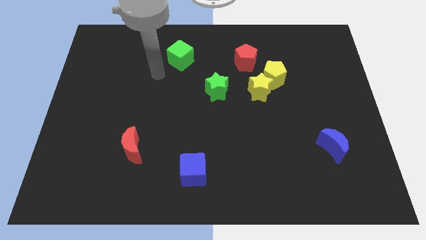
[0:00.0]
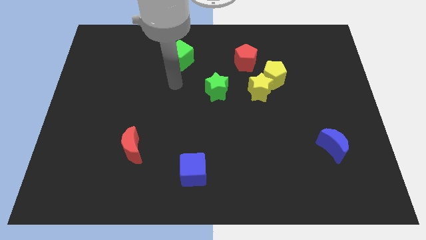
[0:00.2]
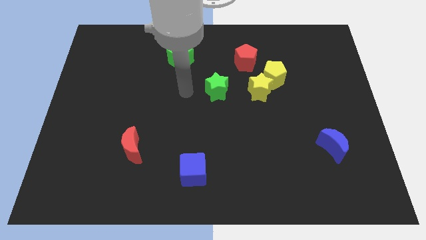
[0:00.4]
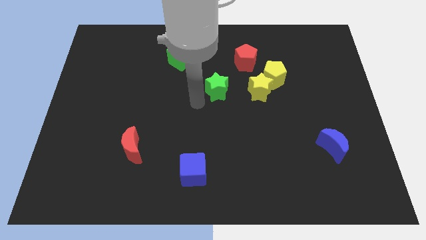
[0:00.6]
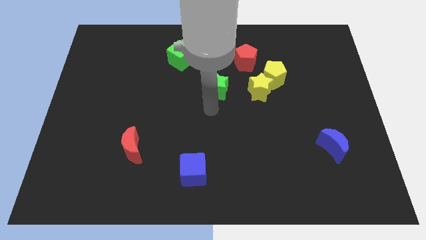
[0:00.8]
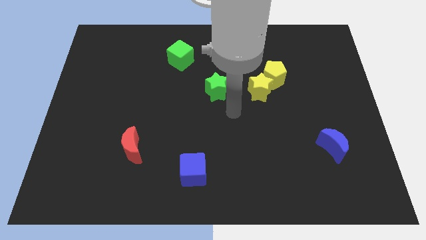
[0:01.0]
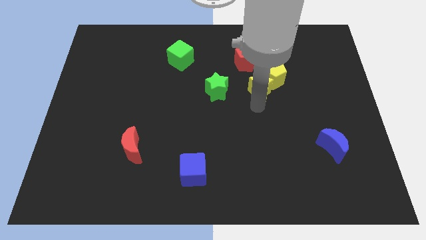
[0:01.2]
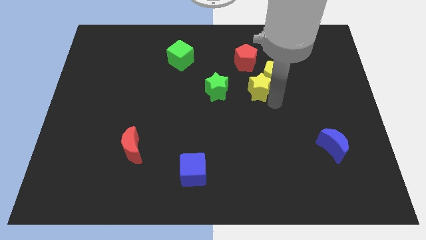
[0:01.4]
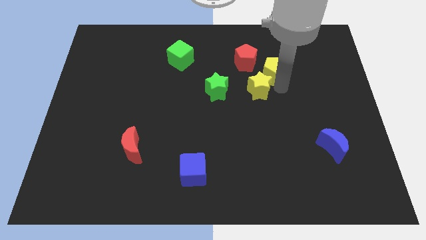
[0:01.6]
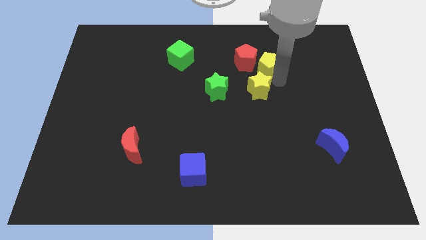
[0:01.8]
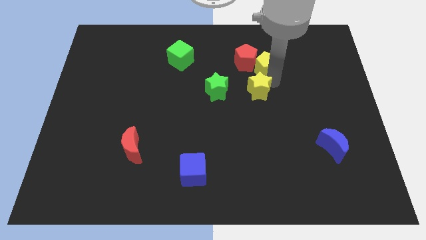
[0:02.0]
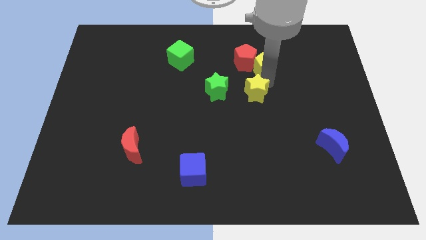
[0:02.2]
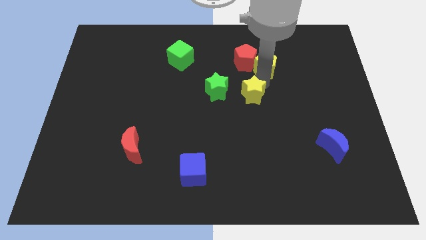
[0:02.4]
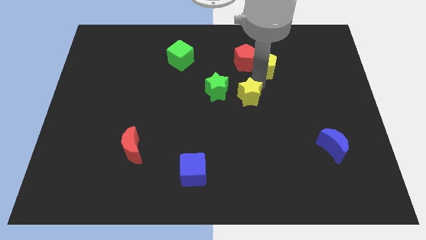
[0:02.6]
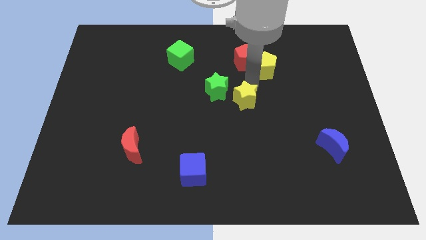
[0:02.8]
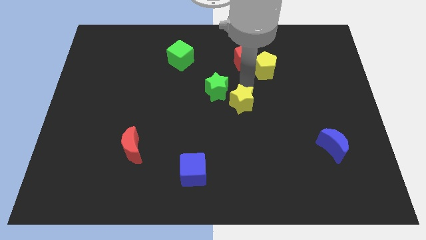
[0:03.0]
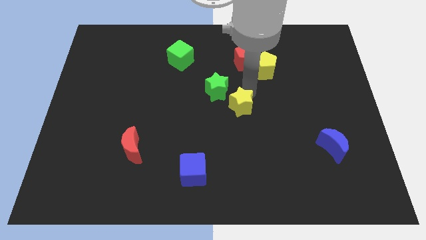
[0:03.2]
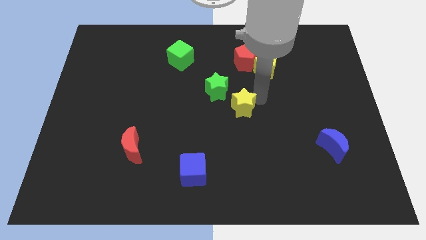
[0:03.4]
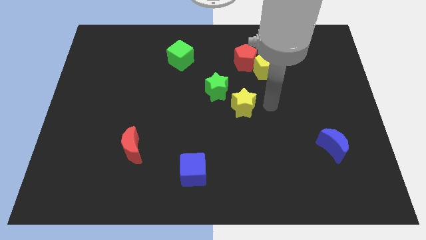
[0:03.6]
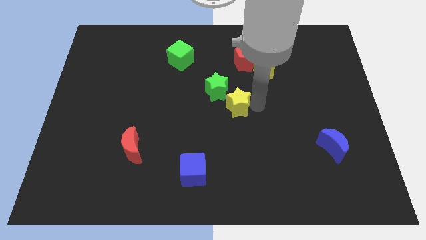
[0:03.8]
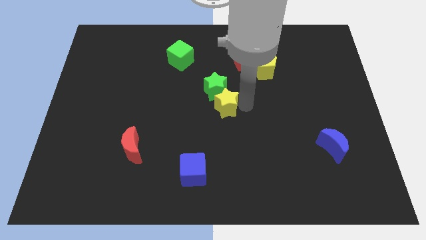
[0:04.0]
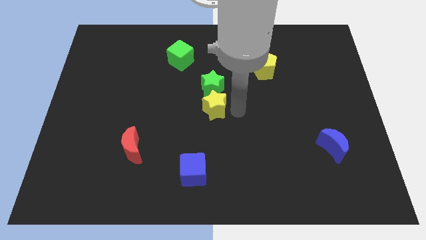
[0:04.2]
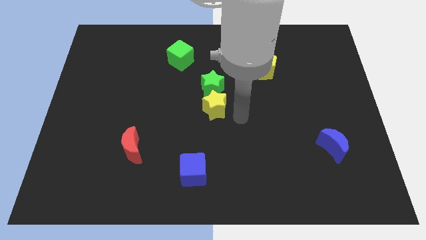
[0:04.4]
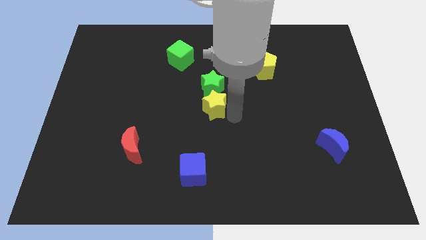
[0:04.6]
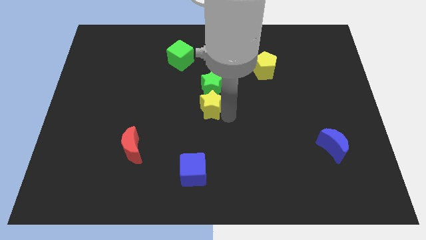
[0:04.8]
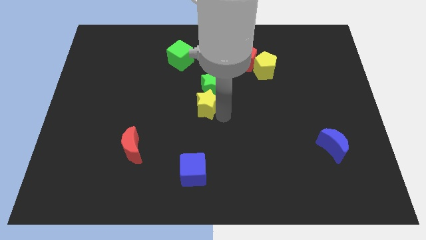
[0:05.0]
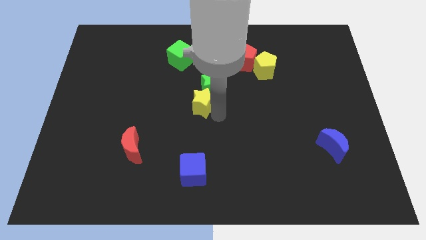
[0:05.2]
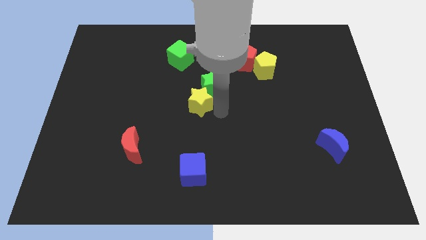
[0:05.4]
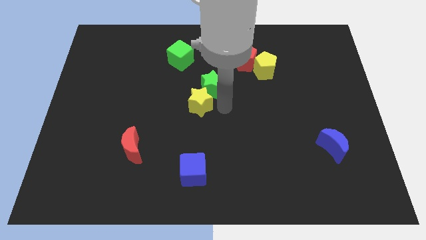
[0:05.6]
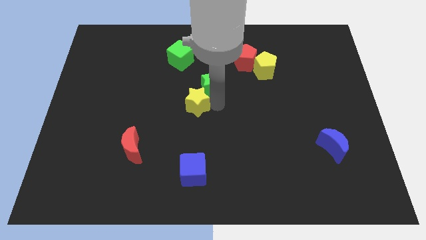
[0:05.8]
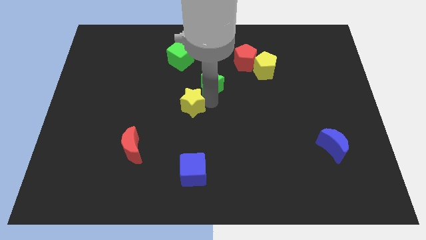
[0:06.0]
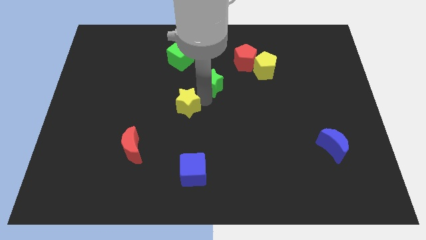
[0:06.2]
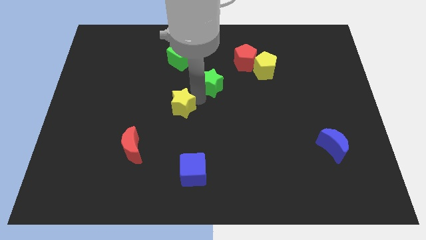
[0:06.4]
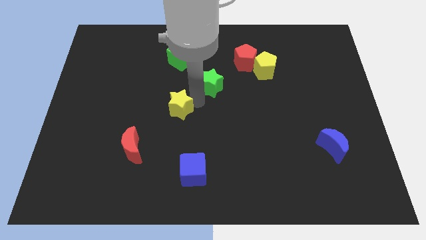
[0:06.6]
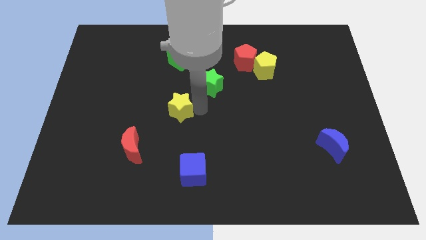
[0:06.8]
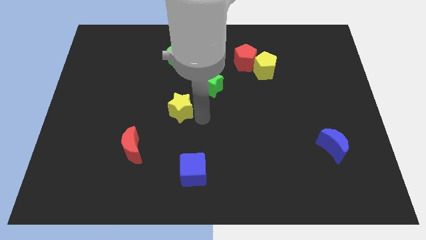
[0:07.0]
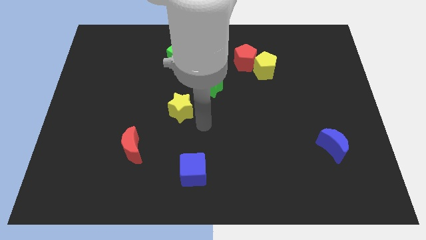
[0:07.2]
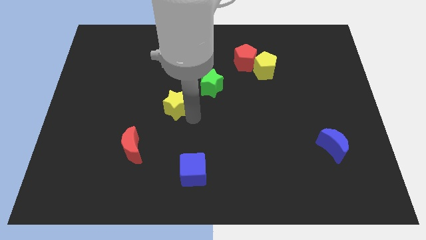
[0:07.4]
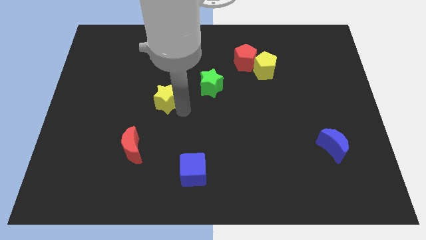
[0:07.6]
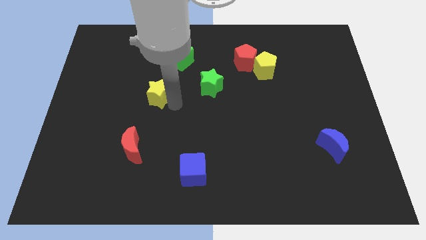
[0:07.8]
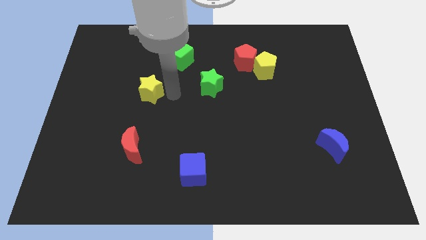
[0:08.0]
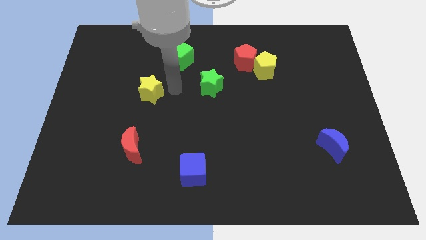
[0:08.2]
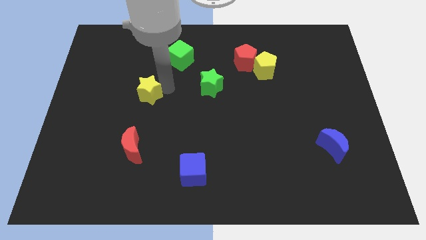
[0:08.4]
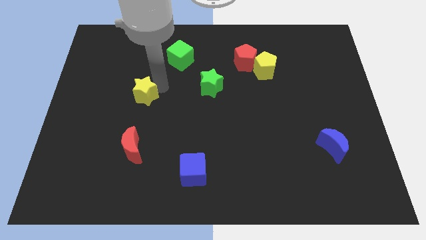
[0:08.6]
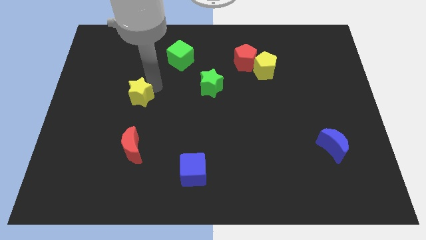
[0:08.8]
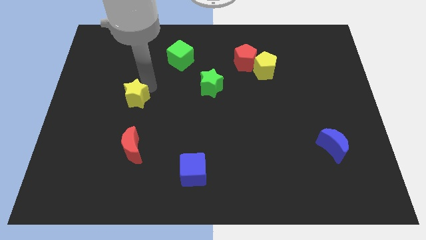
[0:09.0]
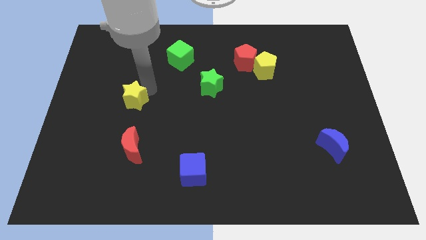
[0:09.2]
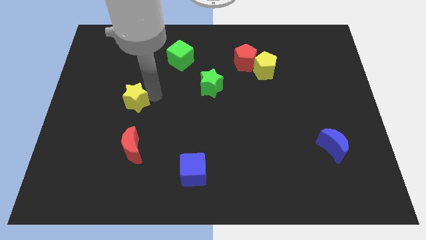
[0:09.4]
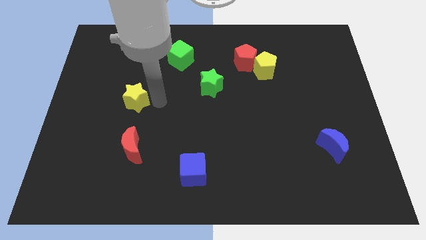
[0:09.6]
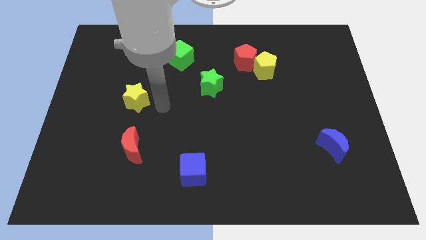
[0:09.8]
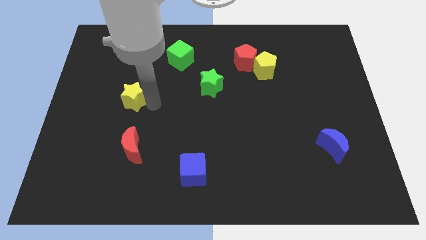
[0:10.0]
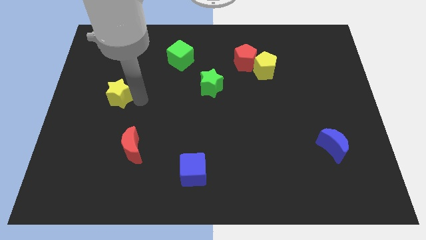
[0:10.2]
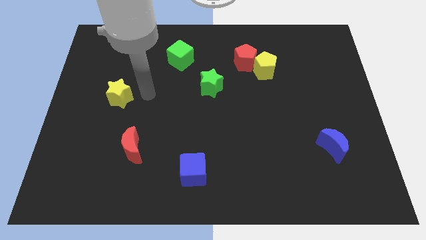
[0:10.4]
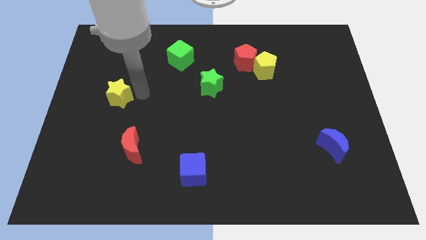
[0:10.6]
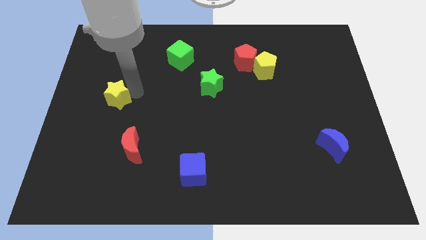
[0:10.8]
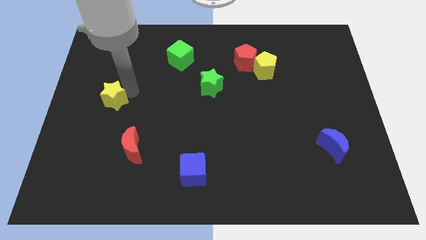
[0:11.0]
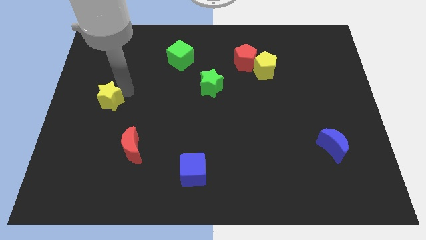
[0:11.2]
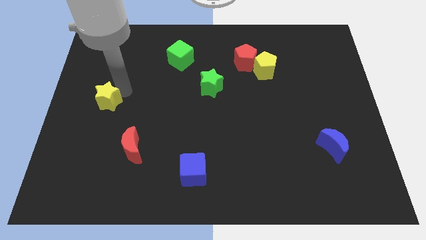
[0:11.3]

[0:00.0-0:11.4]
slide the yellow star to the left side
